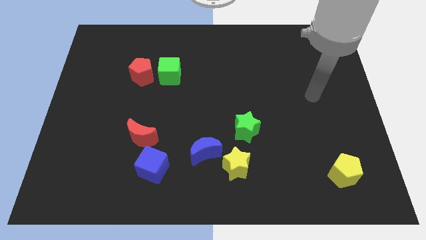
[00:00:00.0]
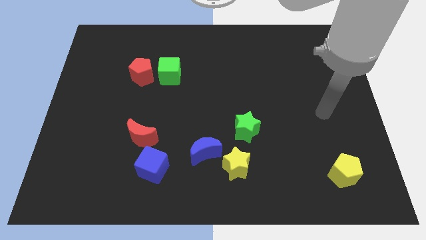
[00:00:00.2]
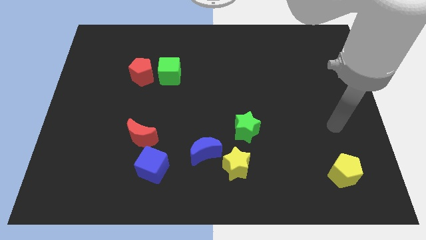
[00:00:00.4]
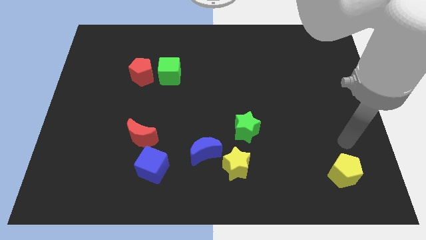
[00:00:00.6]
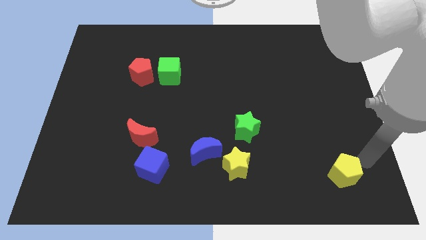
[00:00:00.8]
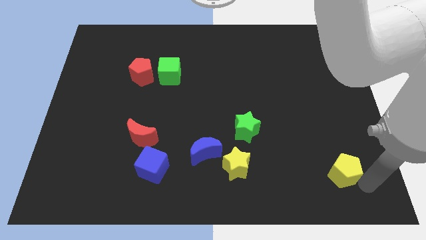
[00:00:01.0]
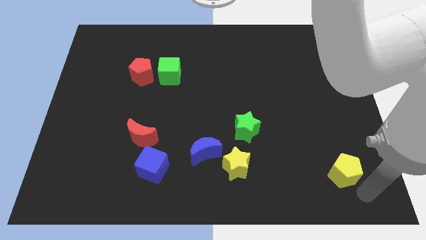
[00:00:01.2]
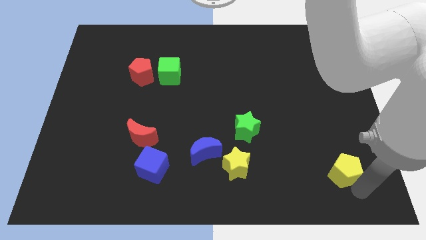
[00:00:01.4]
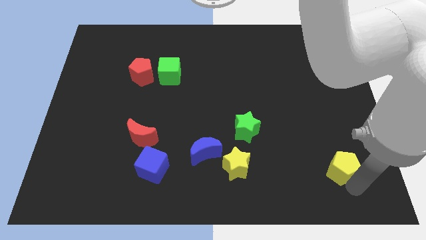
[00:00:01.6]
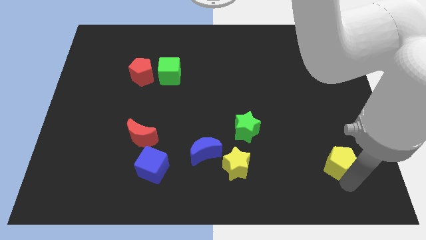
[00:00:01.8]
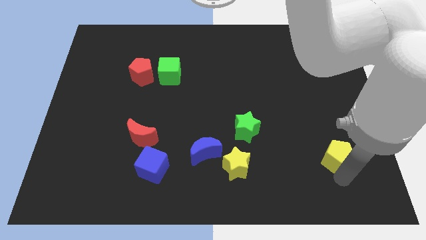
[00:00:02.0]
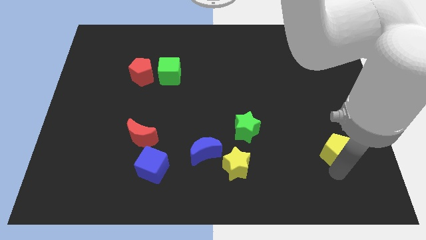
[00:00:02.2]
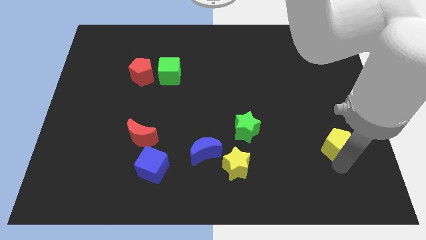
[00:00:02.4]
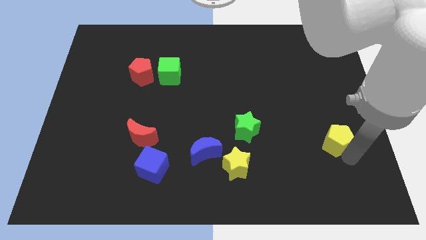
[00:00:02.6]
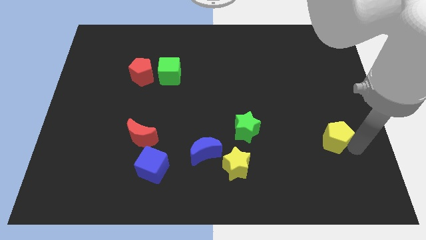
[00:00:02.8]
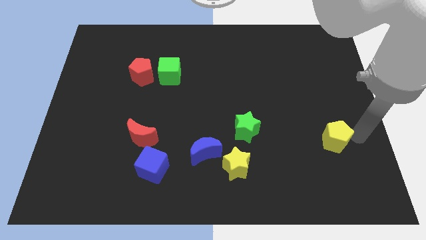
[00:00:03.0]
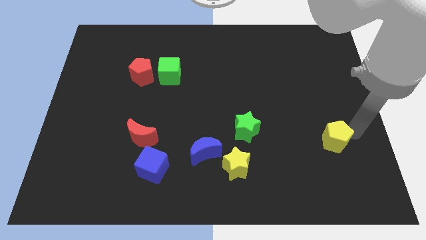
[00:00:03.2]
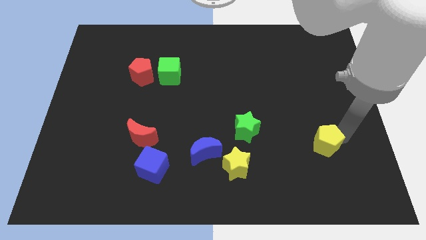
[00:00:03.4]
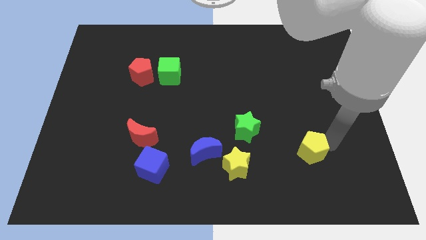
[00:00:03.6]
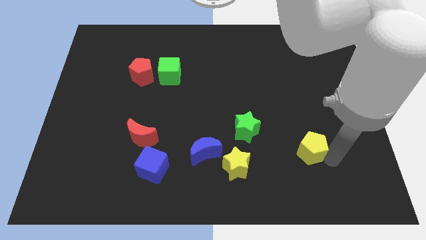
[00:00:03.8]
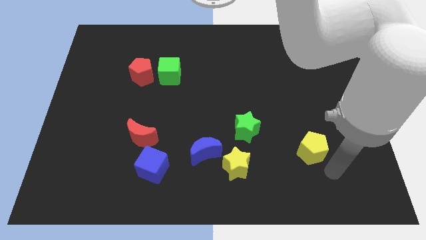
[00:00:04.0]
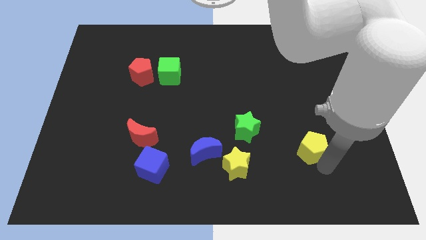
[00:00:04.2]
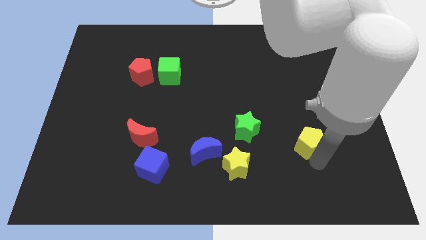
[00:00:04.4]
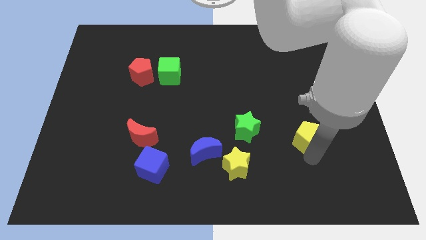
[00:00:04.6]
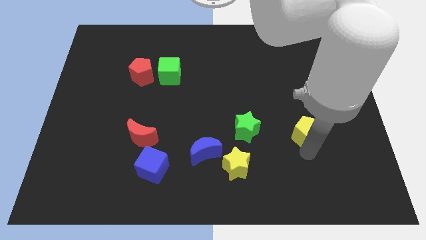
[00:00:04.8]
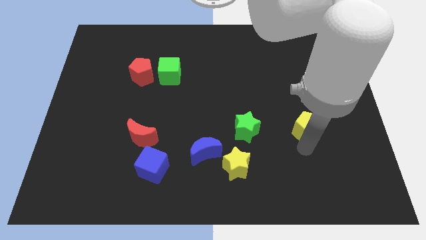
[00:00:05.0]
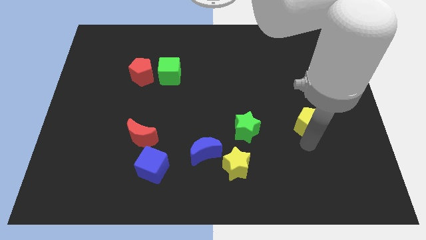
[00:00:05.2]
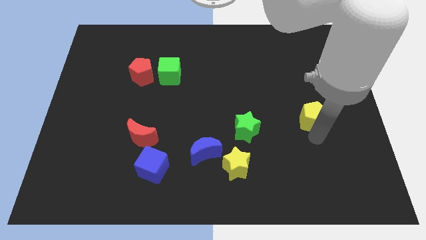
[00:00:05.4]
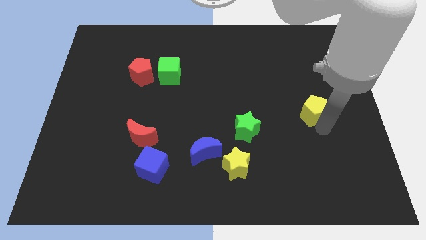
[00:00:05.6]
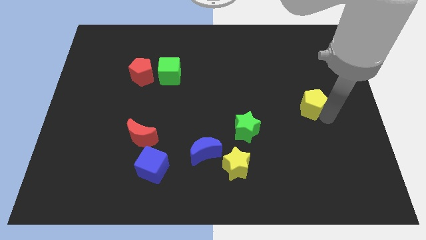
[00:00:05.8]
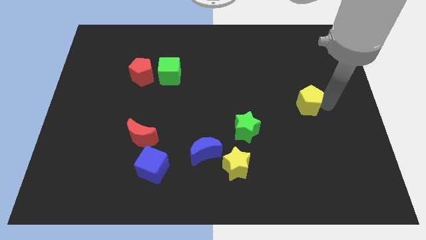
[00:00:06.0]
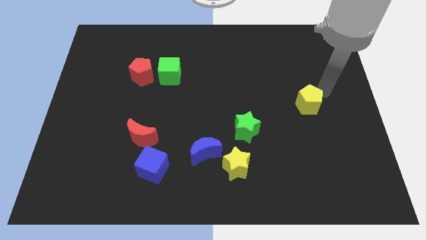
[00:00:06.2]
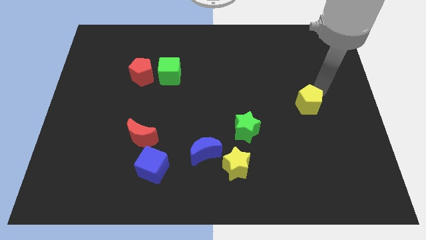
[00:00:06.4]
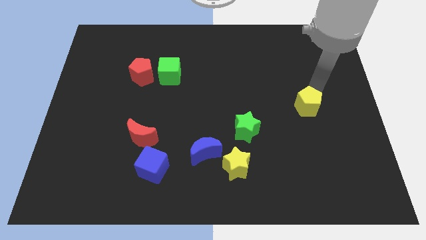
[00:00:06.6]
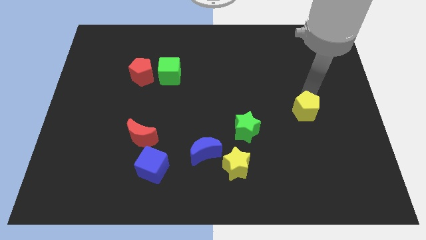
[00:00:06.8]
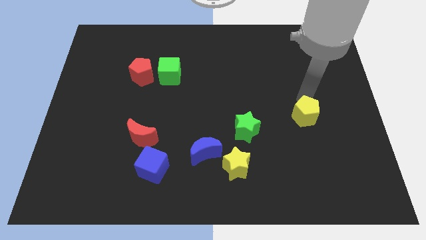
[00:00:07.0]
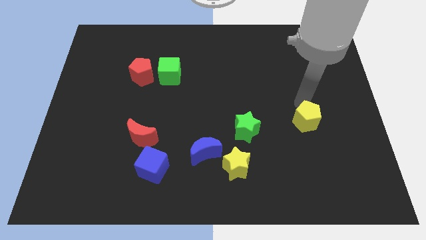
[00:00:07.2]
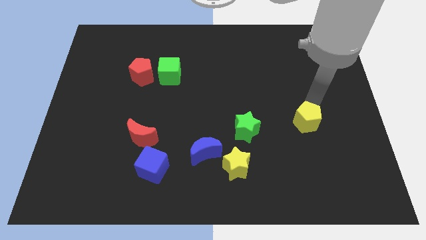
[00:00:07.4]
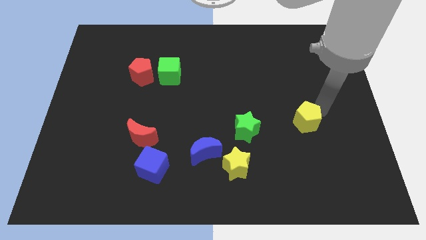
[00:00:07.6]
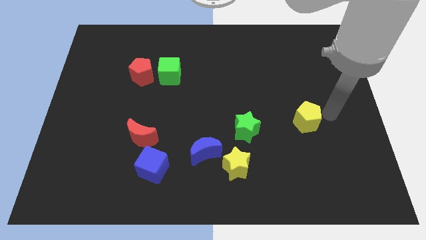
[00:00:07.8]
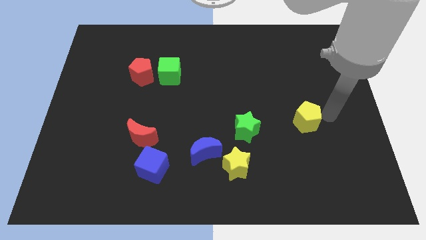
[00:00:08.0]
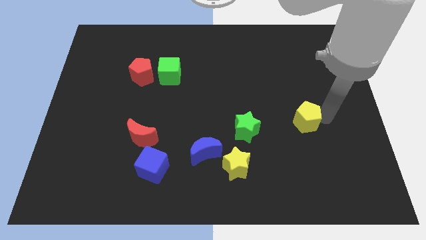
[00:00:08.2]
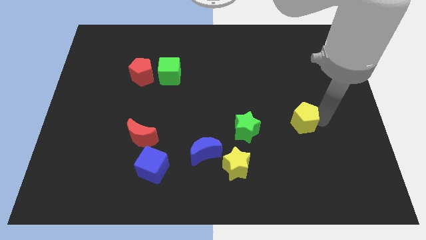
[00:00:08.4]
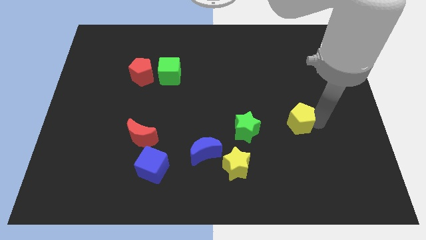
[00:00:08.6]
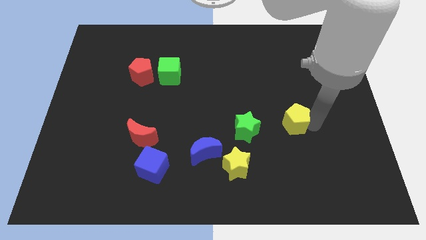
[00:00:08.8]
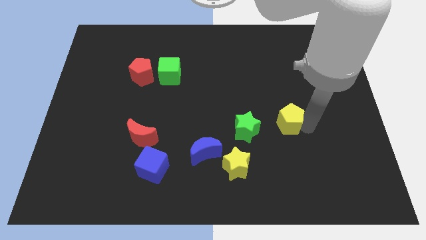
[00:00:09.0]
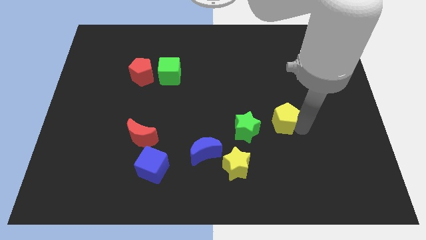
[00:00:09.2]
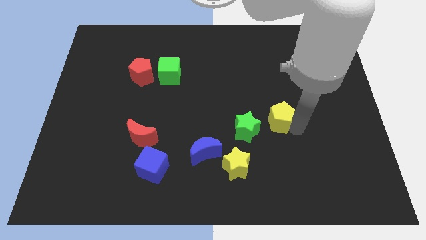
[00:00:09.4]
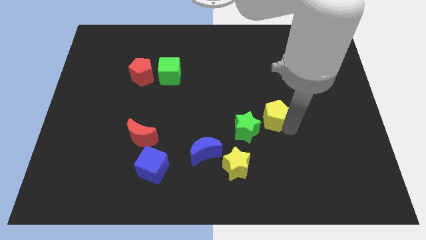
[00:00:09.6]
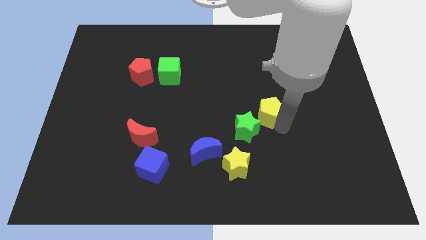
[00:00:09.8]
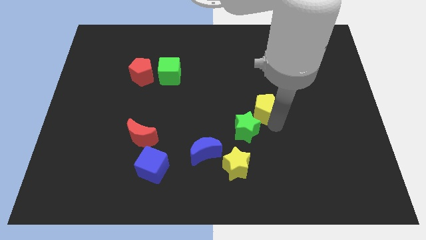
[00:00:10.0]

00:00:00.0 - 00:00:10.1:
push the yellow pentagon to the center

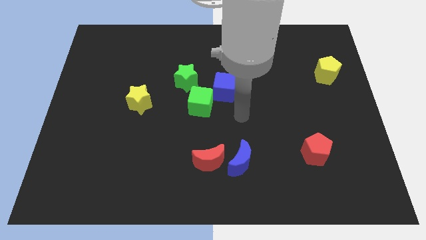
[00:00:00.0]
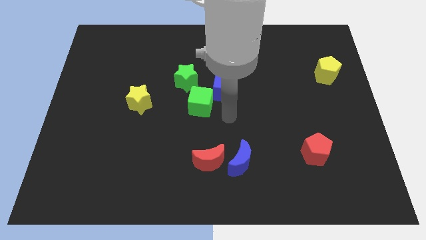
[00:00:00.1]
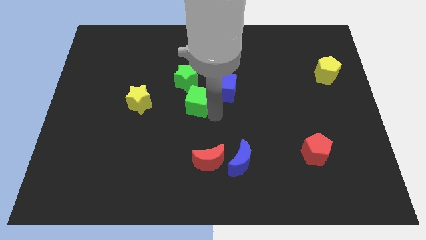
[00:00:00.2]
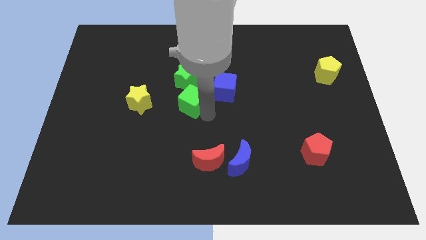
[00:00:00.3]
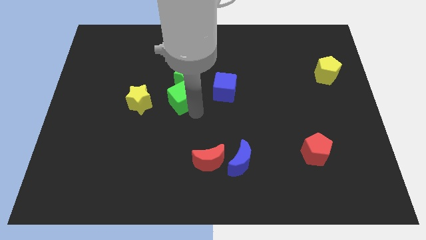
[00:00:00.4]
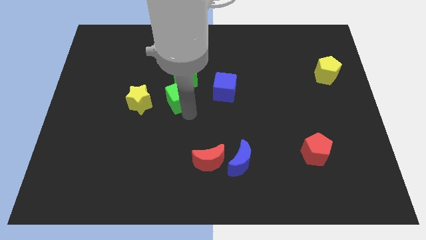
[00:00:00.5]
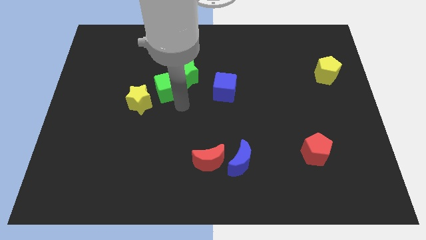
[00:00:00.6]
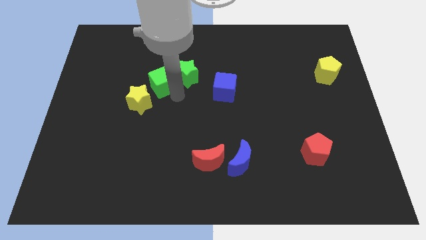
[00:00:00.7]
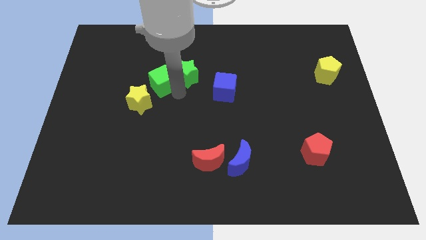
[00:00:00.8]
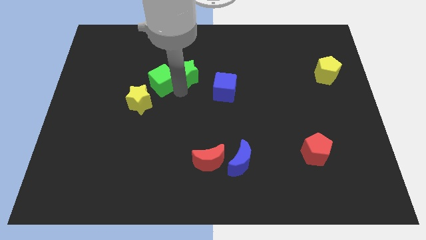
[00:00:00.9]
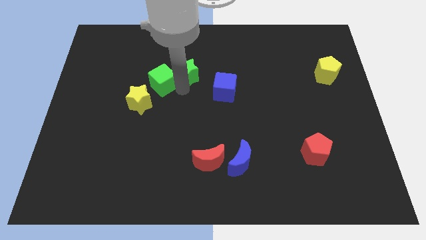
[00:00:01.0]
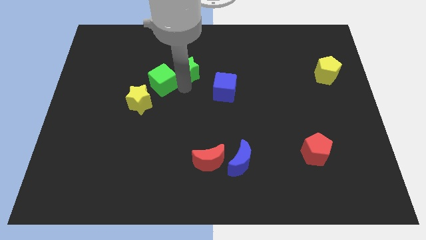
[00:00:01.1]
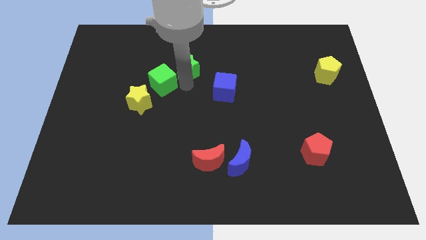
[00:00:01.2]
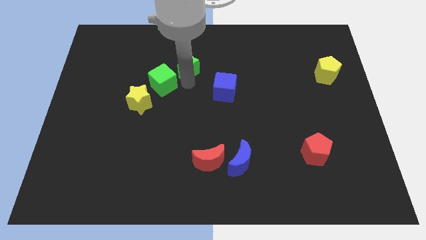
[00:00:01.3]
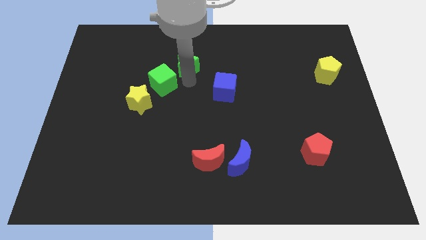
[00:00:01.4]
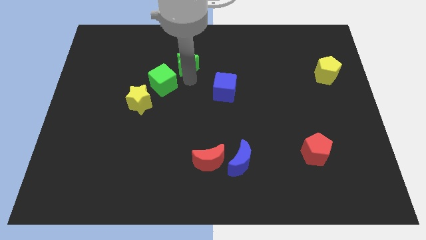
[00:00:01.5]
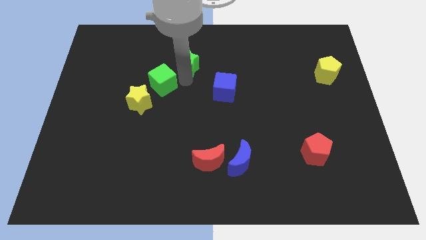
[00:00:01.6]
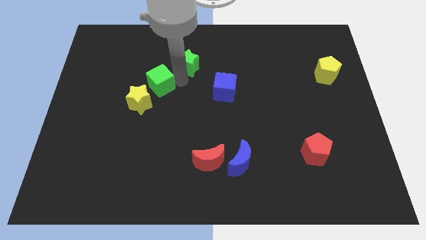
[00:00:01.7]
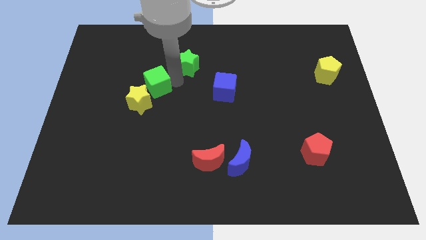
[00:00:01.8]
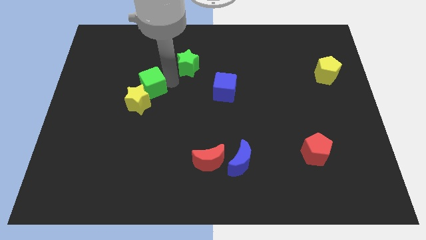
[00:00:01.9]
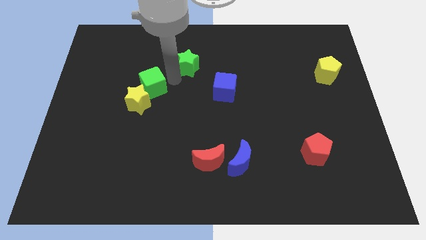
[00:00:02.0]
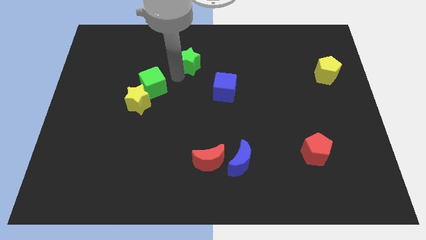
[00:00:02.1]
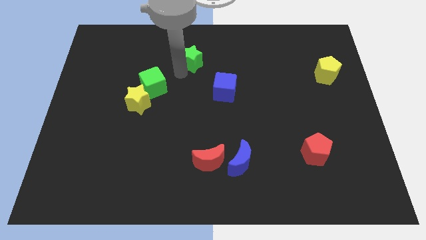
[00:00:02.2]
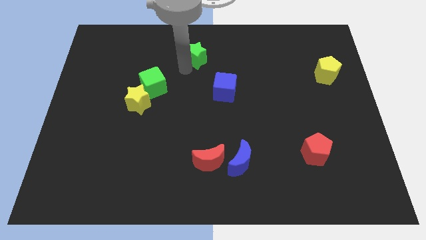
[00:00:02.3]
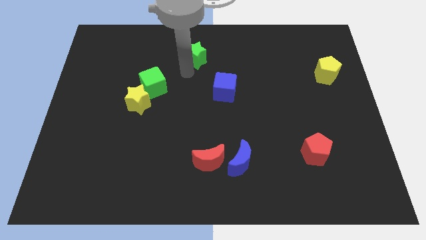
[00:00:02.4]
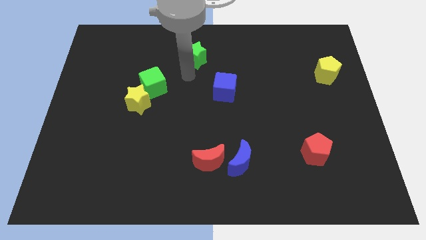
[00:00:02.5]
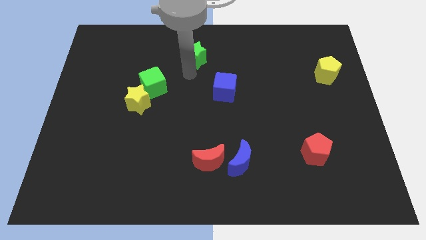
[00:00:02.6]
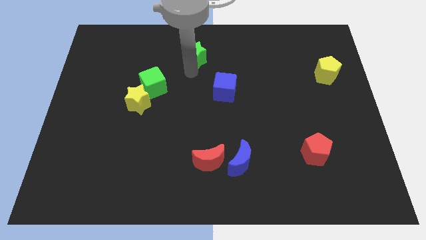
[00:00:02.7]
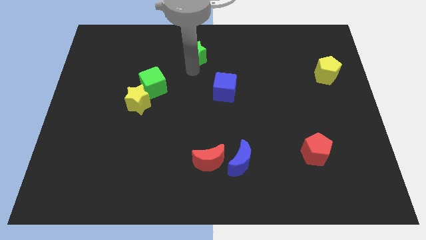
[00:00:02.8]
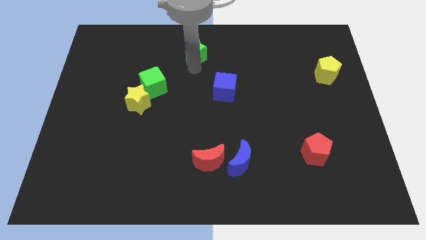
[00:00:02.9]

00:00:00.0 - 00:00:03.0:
push the green star to the top
